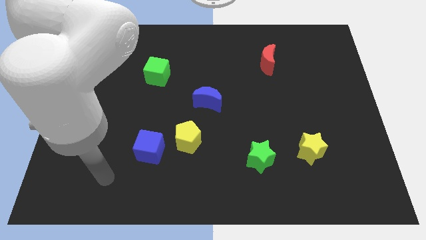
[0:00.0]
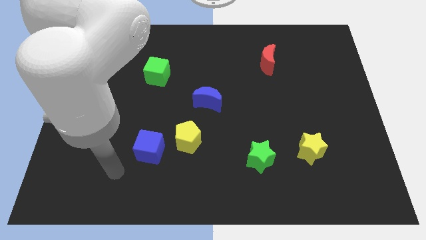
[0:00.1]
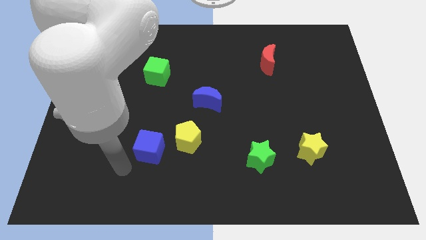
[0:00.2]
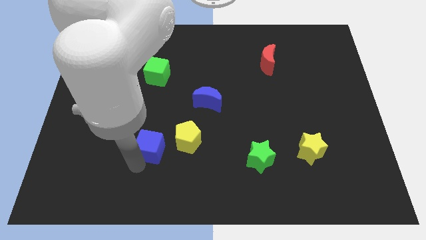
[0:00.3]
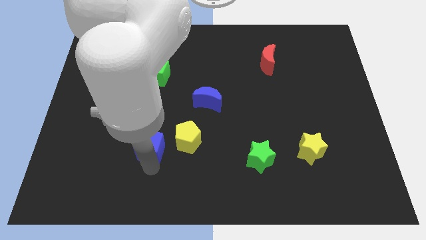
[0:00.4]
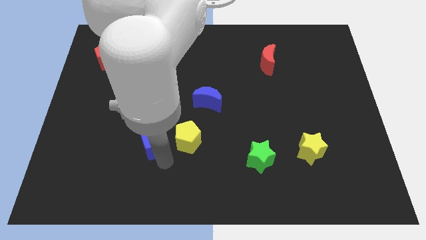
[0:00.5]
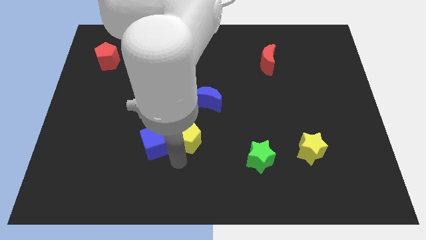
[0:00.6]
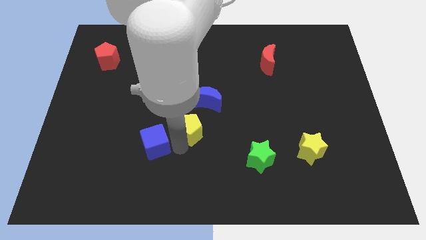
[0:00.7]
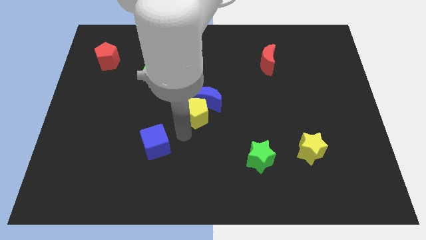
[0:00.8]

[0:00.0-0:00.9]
move the blue cube away from the yellow pentagon

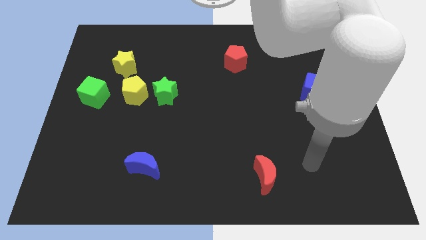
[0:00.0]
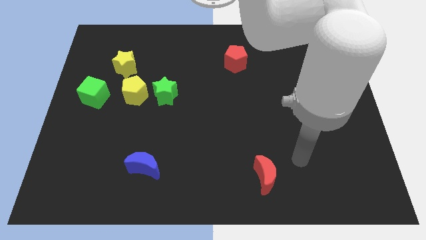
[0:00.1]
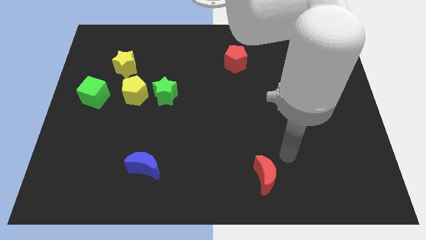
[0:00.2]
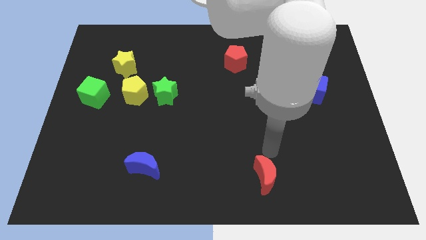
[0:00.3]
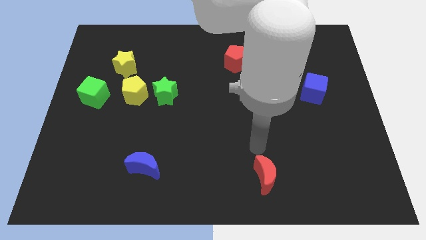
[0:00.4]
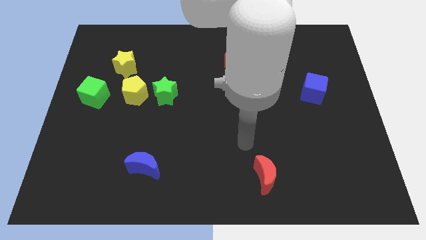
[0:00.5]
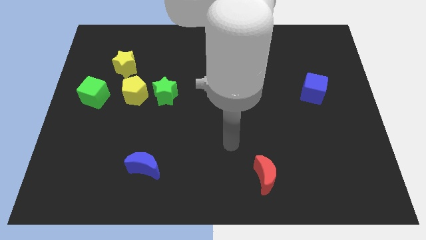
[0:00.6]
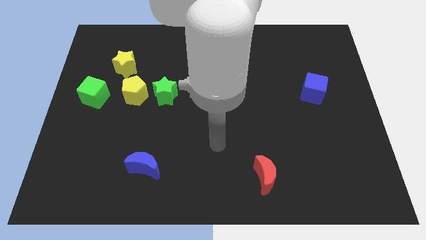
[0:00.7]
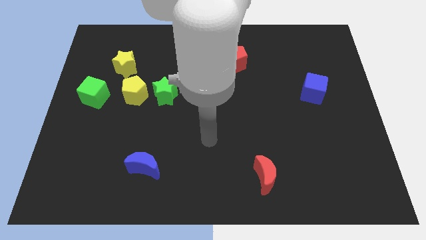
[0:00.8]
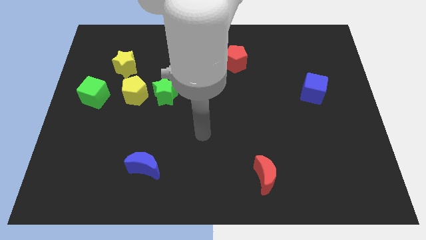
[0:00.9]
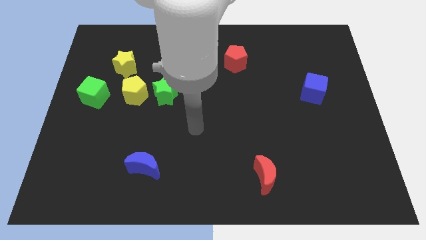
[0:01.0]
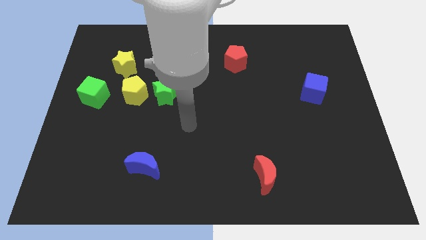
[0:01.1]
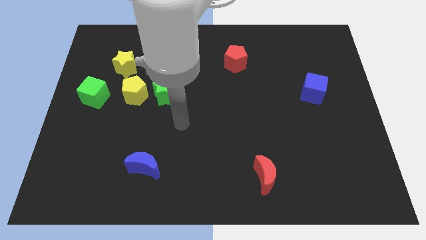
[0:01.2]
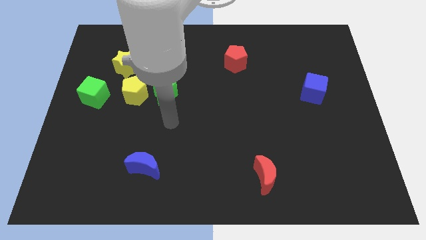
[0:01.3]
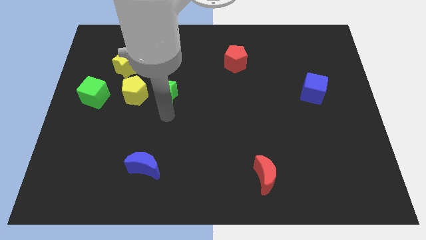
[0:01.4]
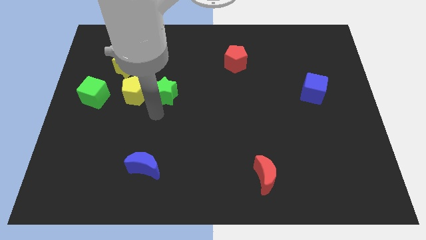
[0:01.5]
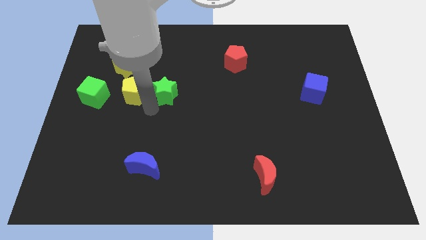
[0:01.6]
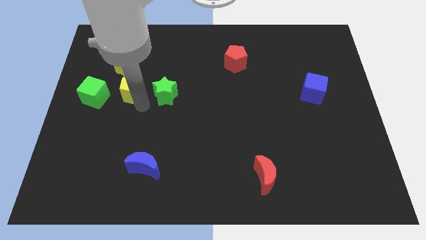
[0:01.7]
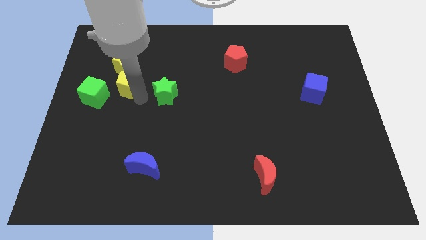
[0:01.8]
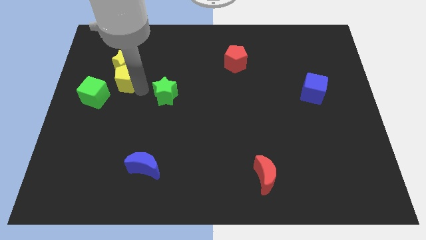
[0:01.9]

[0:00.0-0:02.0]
separate the green star from the yellow pentagon

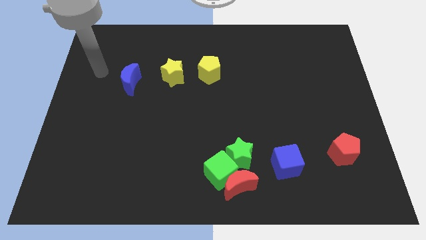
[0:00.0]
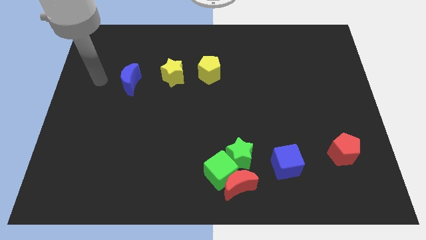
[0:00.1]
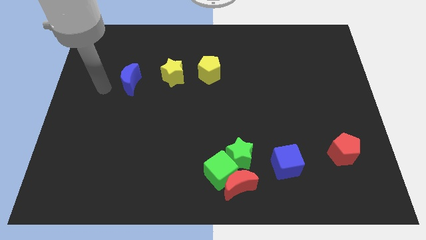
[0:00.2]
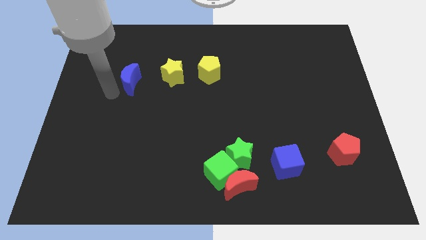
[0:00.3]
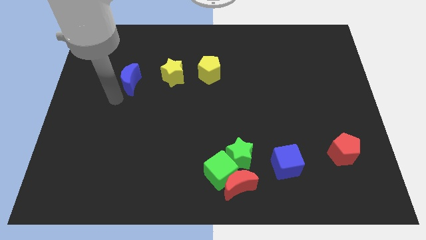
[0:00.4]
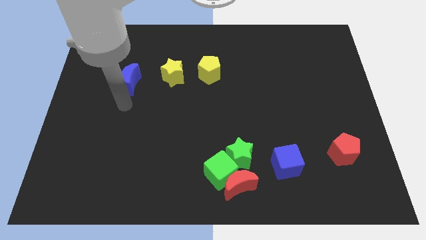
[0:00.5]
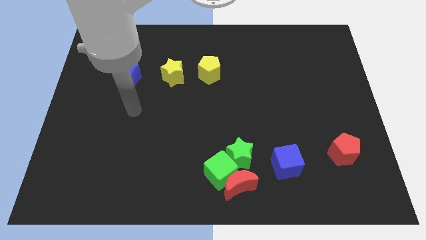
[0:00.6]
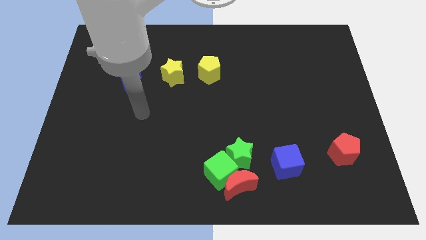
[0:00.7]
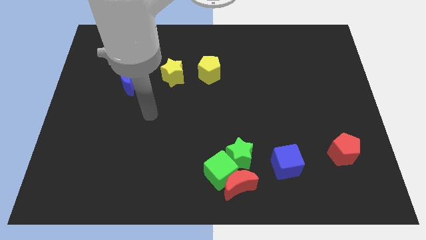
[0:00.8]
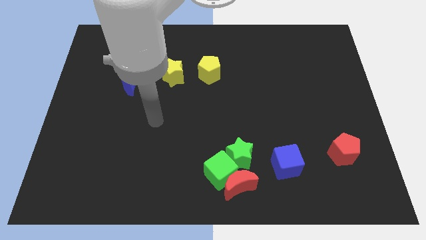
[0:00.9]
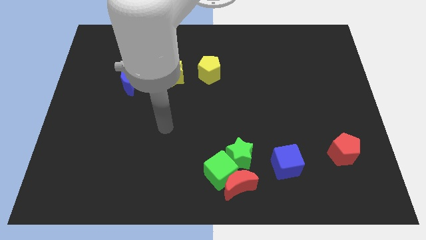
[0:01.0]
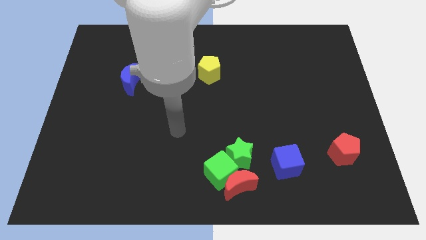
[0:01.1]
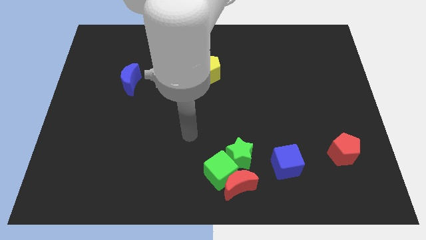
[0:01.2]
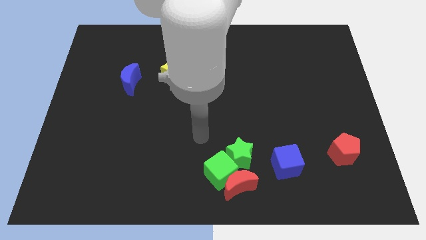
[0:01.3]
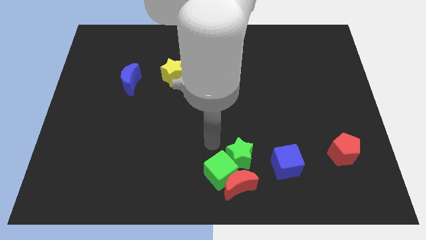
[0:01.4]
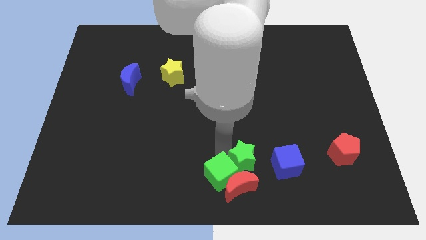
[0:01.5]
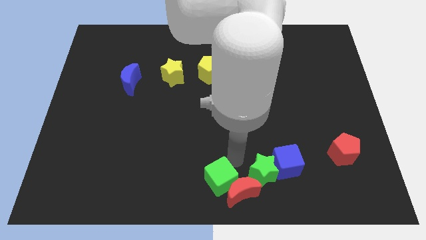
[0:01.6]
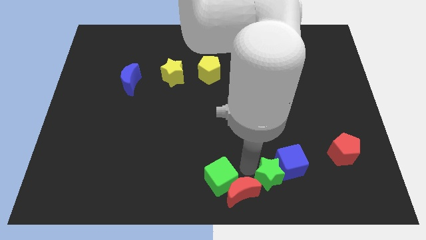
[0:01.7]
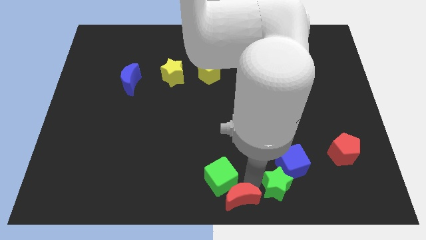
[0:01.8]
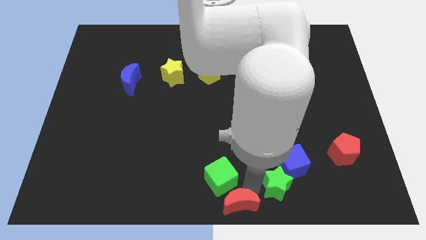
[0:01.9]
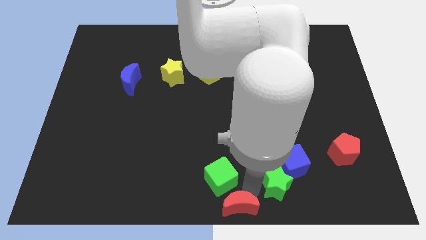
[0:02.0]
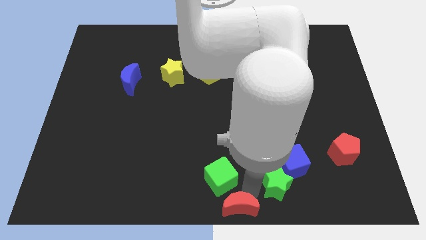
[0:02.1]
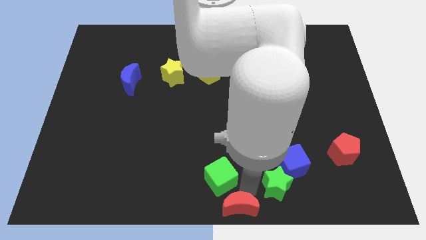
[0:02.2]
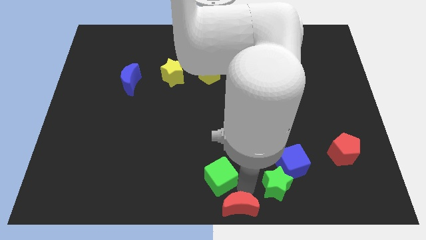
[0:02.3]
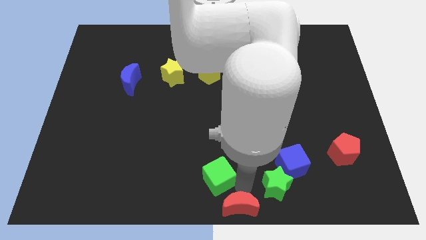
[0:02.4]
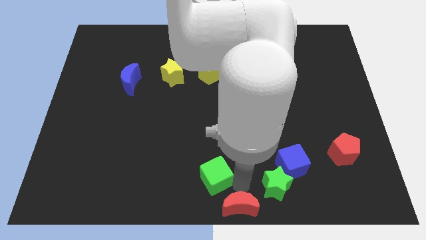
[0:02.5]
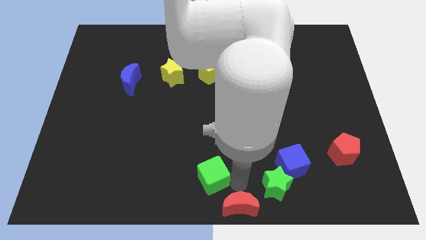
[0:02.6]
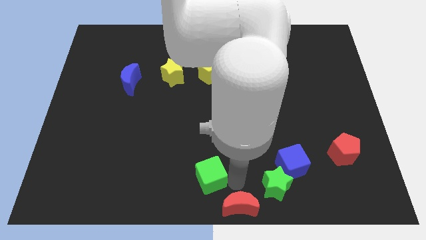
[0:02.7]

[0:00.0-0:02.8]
separate the green cube from the red moon and green star

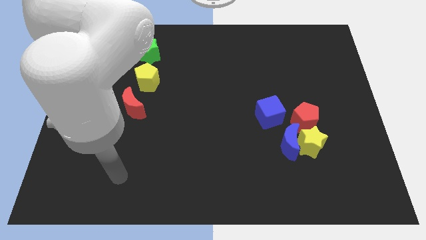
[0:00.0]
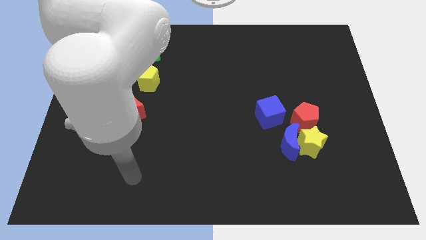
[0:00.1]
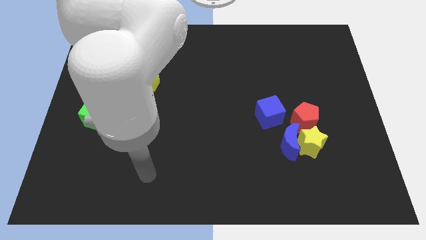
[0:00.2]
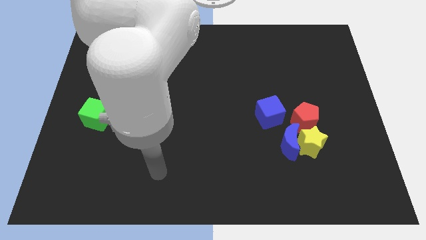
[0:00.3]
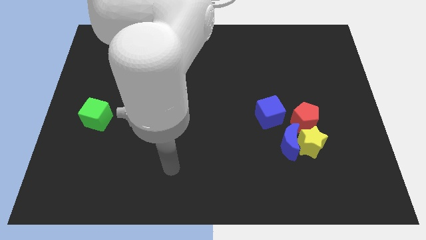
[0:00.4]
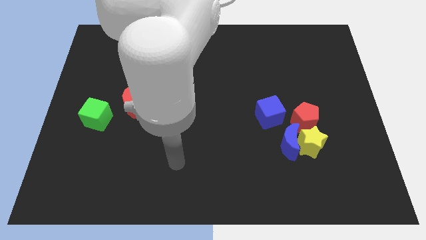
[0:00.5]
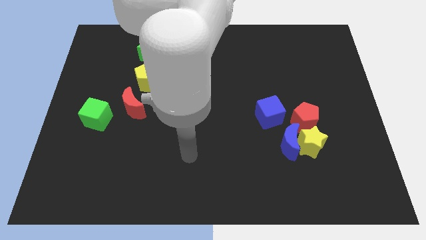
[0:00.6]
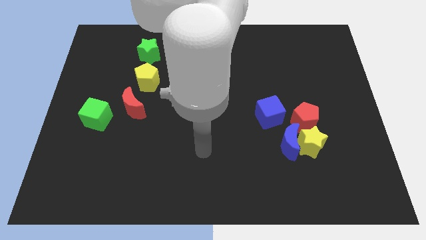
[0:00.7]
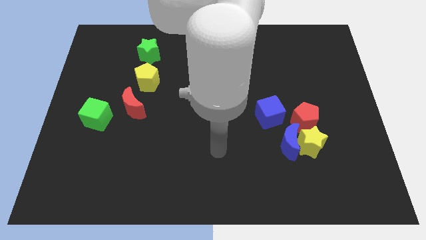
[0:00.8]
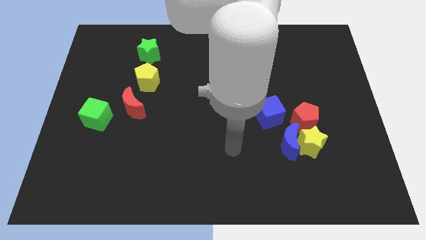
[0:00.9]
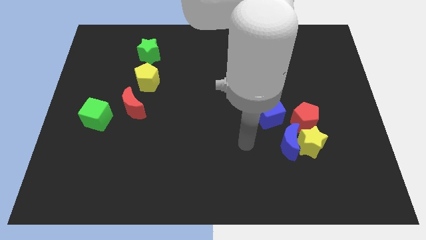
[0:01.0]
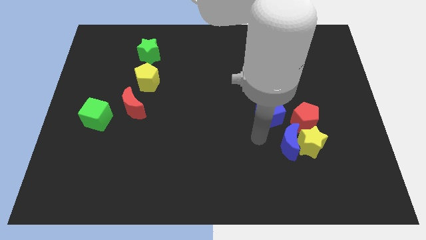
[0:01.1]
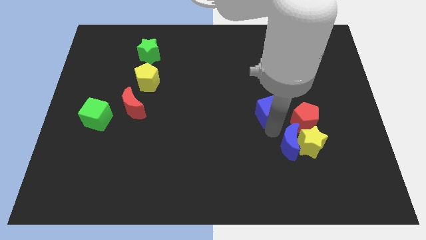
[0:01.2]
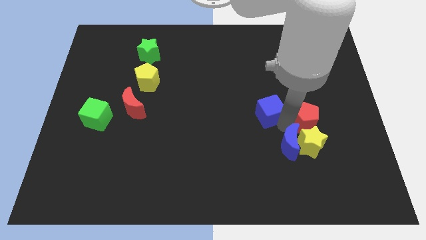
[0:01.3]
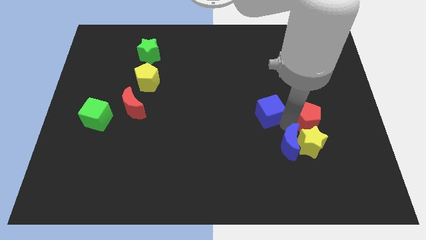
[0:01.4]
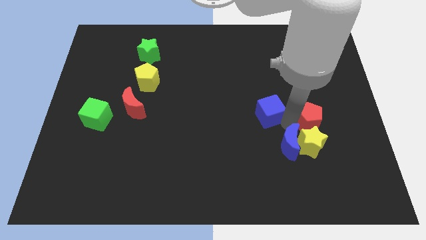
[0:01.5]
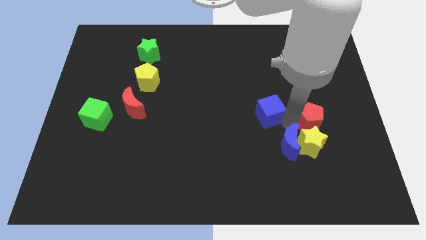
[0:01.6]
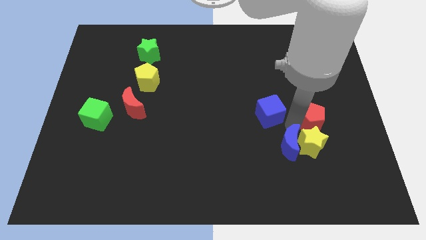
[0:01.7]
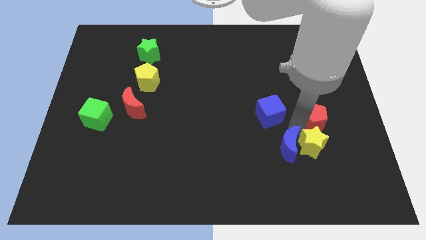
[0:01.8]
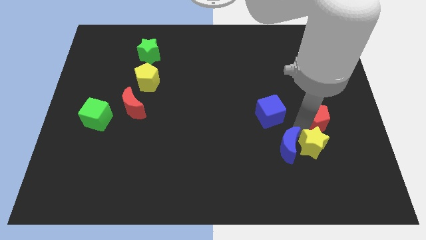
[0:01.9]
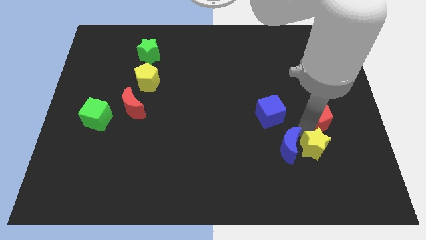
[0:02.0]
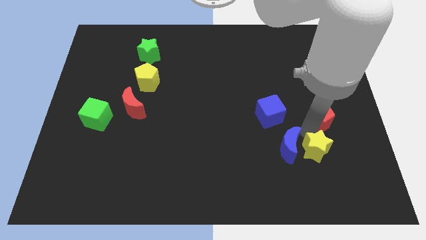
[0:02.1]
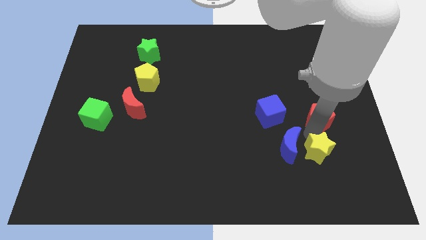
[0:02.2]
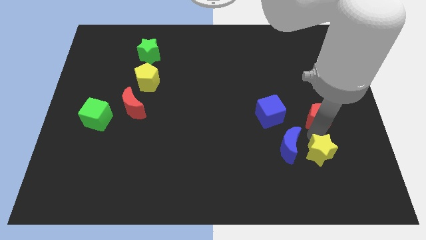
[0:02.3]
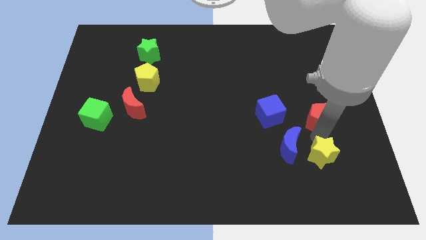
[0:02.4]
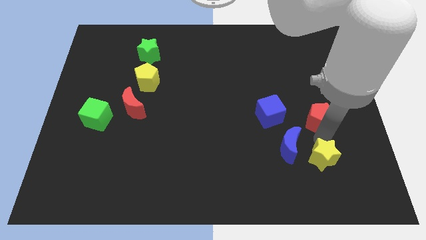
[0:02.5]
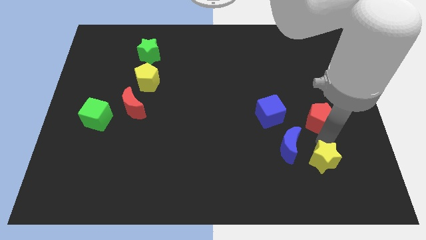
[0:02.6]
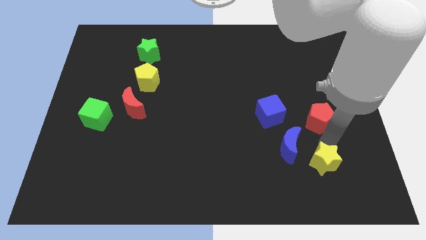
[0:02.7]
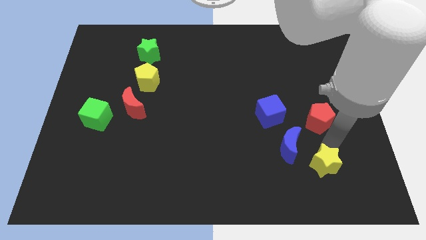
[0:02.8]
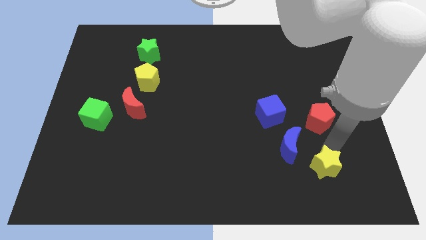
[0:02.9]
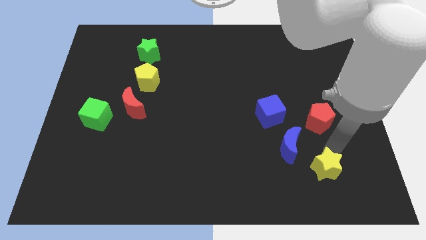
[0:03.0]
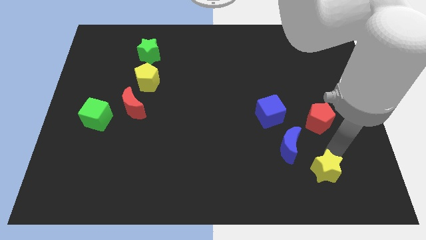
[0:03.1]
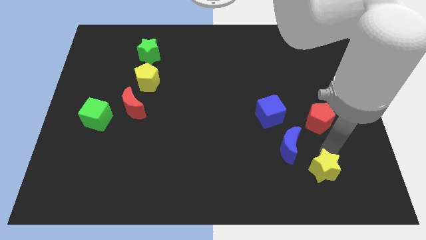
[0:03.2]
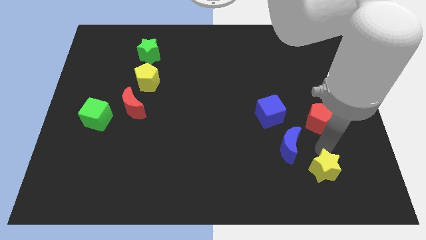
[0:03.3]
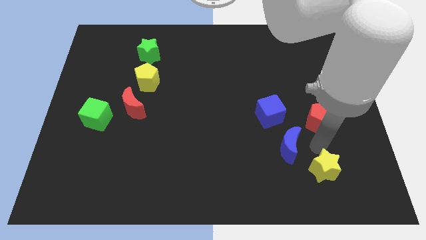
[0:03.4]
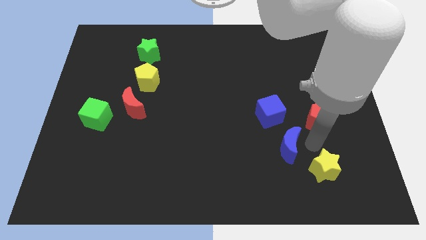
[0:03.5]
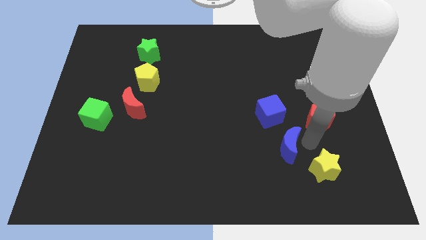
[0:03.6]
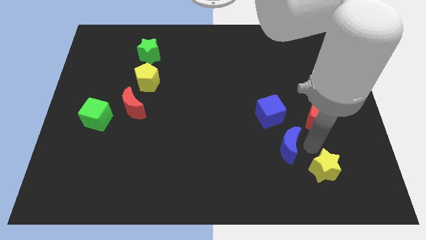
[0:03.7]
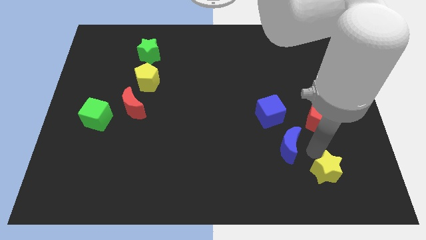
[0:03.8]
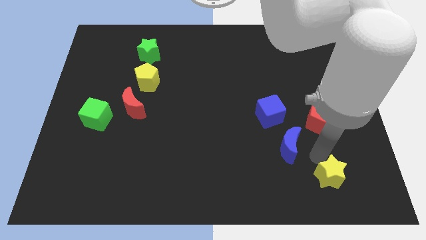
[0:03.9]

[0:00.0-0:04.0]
separate the yellow star from the blue moon and red pentagon
